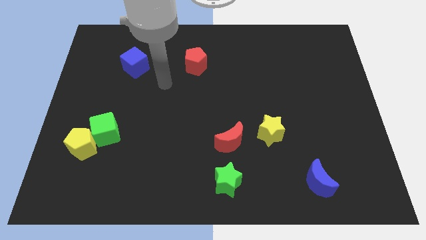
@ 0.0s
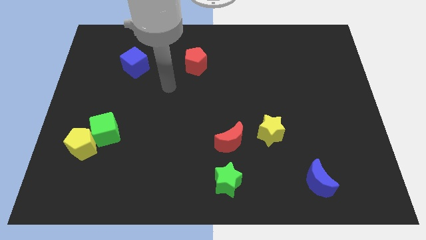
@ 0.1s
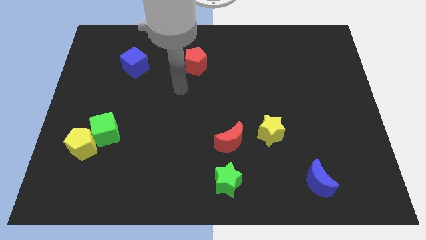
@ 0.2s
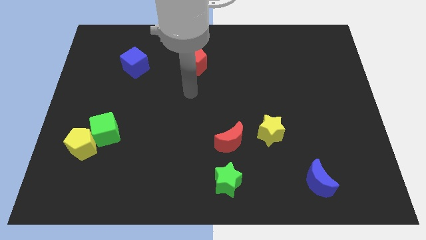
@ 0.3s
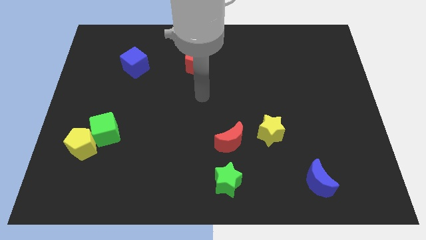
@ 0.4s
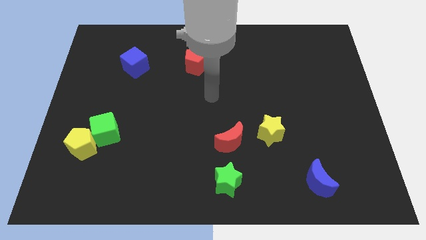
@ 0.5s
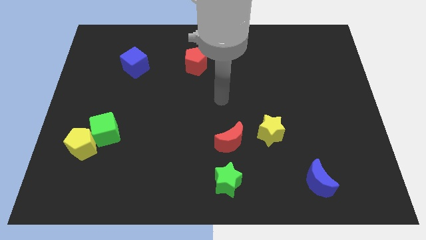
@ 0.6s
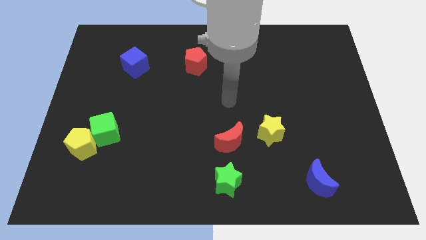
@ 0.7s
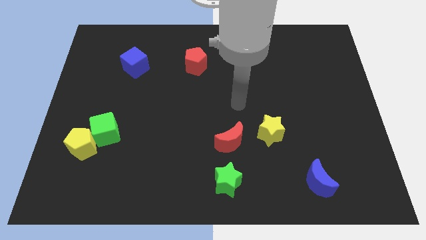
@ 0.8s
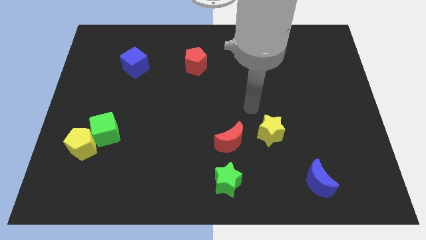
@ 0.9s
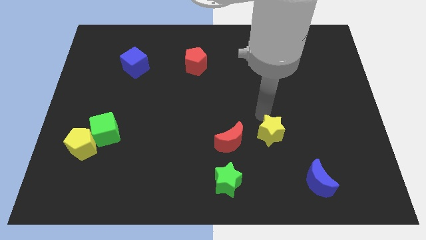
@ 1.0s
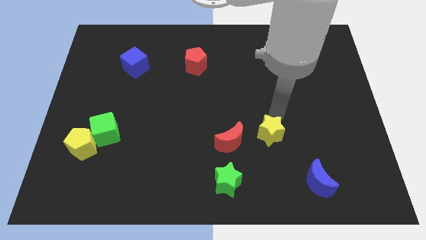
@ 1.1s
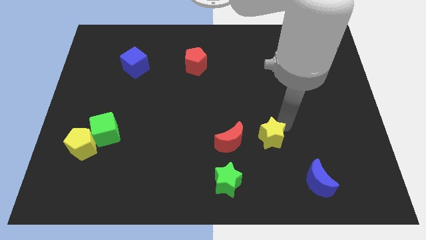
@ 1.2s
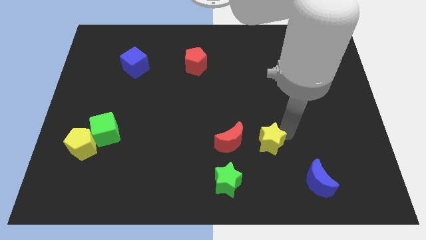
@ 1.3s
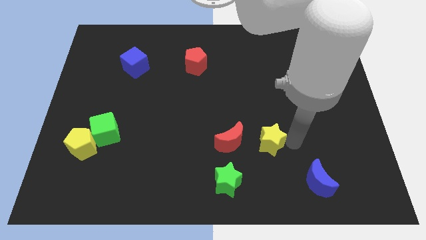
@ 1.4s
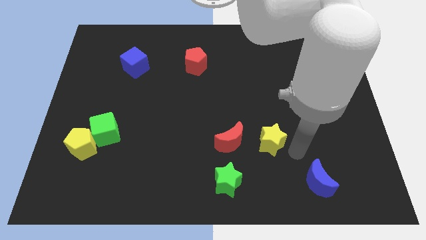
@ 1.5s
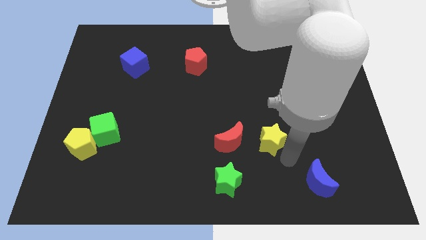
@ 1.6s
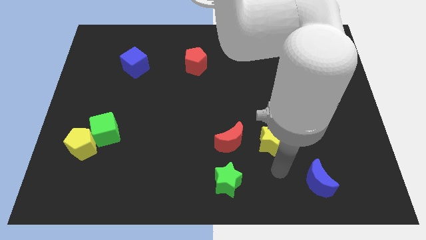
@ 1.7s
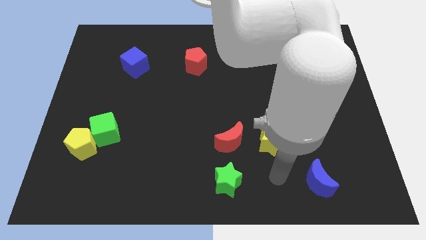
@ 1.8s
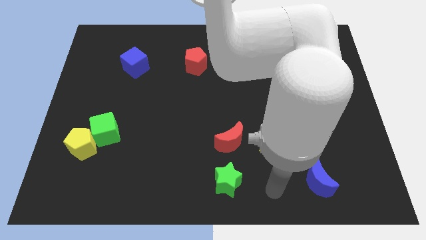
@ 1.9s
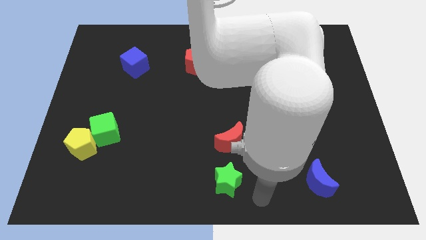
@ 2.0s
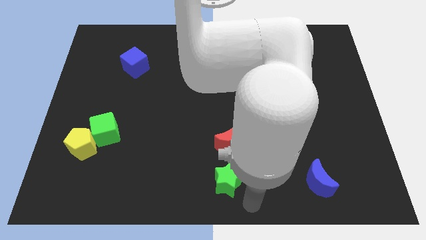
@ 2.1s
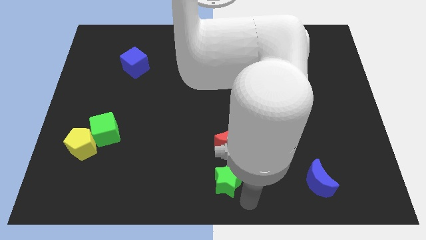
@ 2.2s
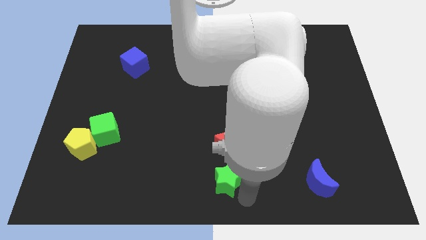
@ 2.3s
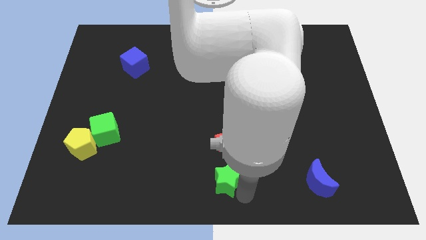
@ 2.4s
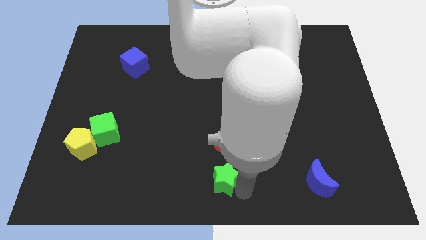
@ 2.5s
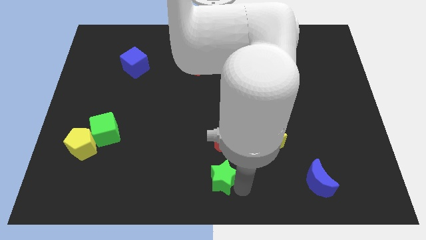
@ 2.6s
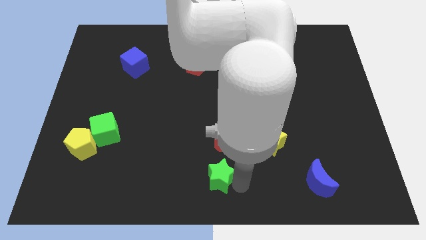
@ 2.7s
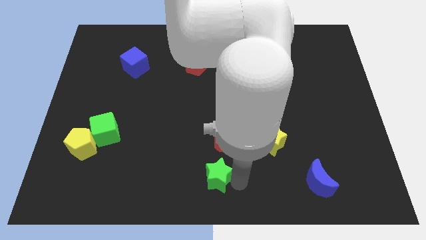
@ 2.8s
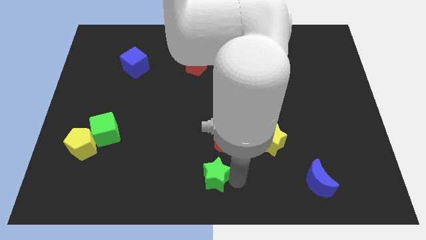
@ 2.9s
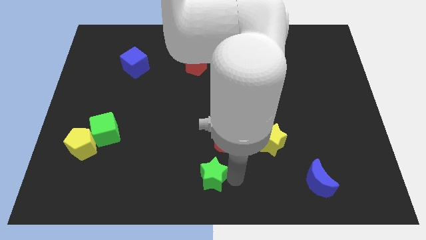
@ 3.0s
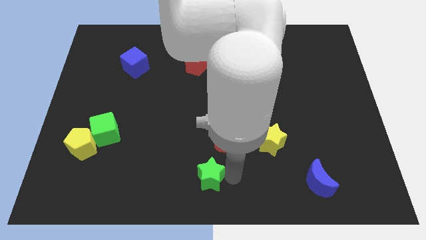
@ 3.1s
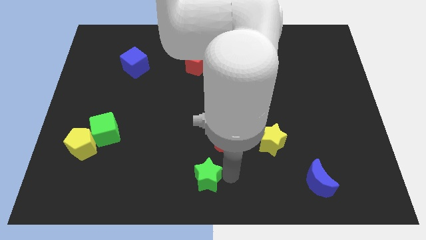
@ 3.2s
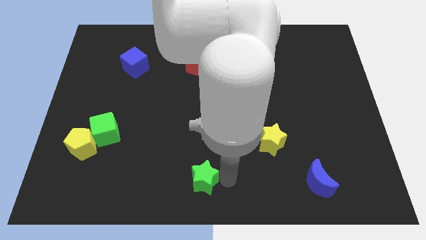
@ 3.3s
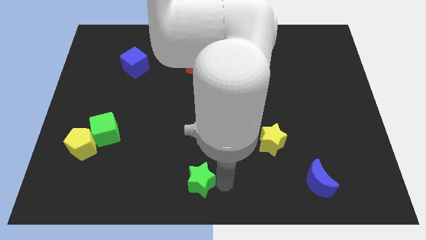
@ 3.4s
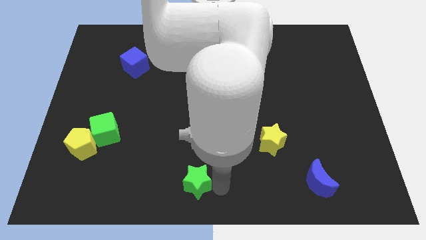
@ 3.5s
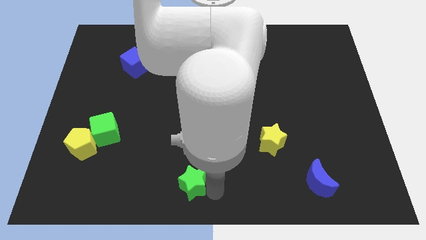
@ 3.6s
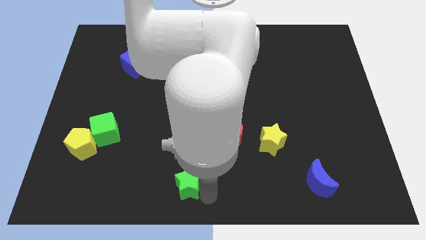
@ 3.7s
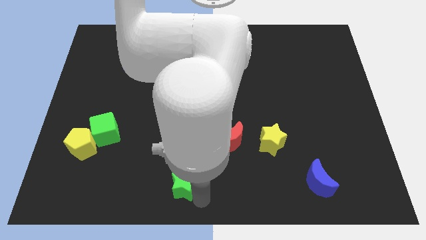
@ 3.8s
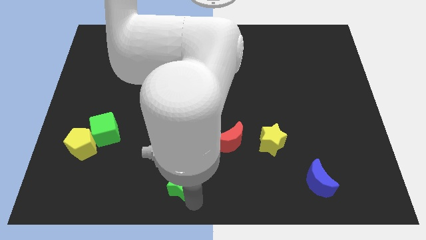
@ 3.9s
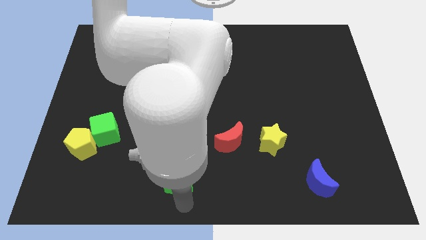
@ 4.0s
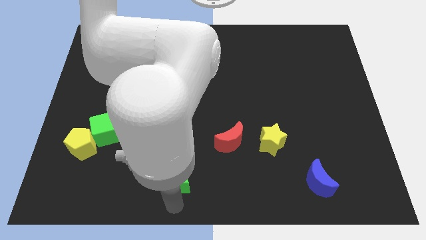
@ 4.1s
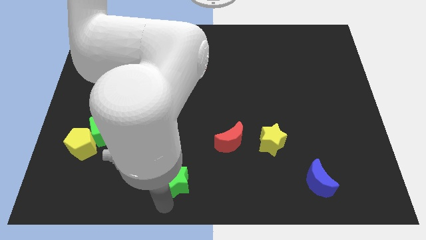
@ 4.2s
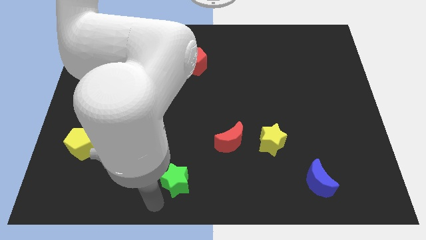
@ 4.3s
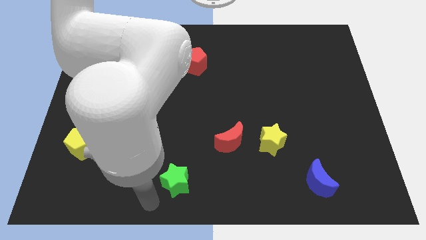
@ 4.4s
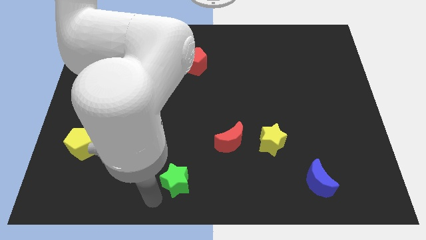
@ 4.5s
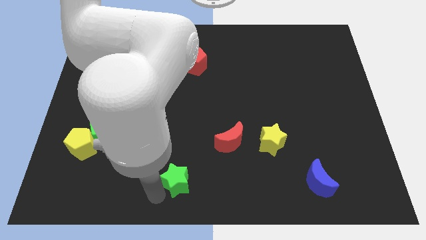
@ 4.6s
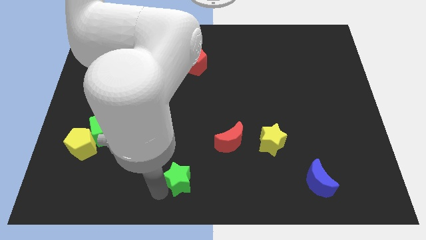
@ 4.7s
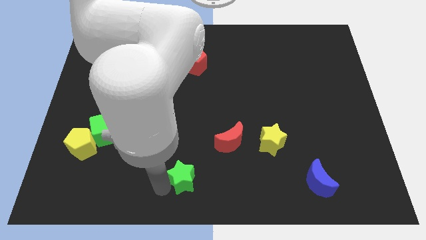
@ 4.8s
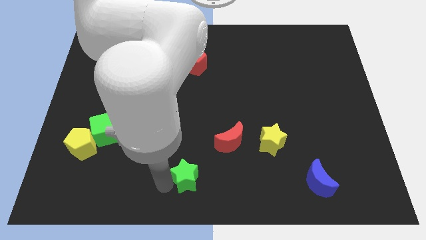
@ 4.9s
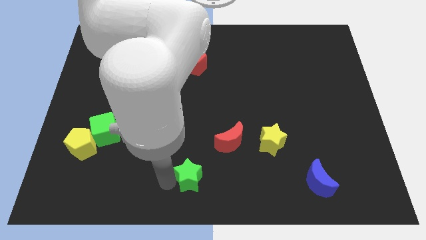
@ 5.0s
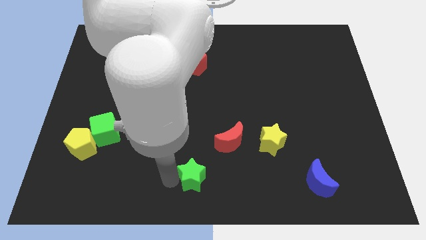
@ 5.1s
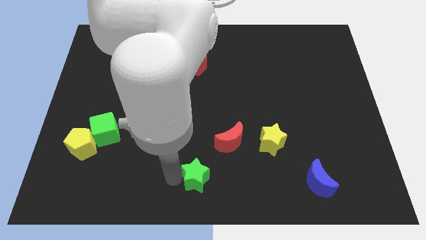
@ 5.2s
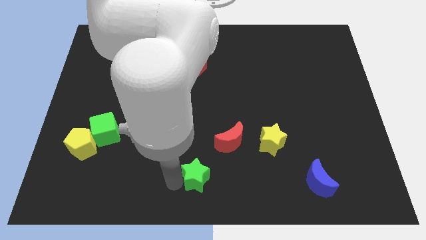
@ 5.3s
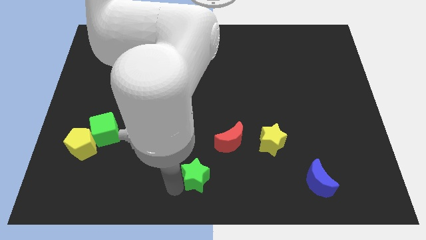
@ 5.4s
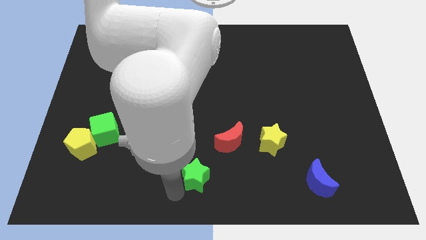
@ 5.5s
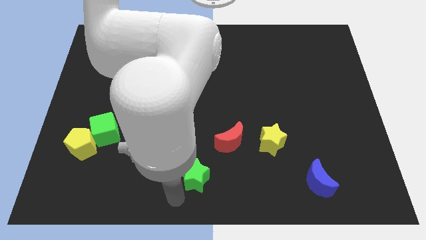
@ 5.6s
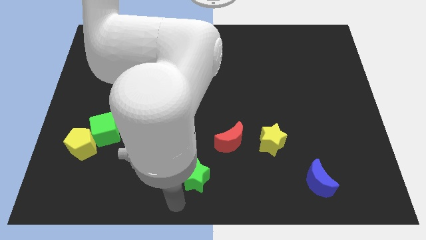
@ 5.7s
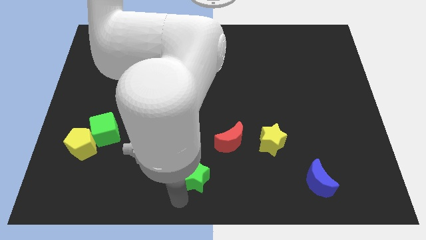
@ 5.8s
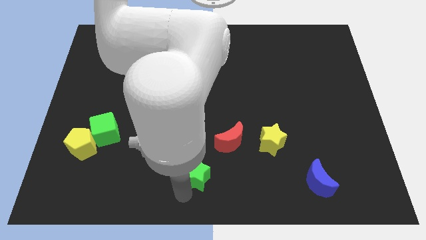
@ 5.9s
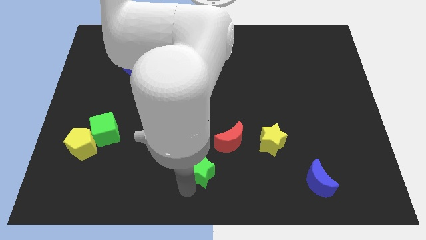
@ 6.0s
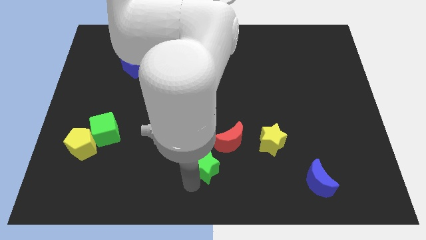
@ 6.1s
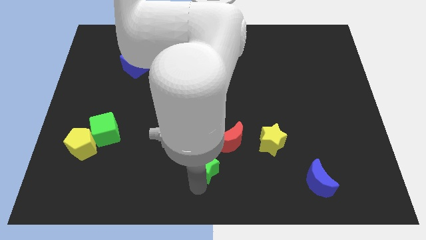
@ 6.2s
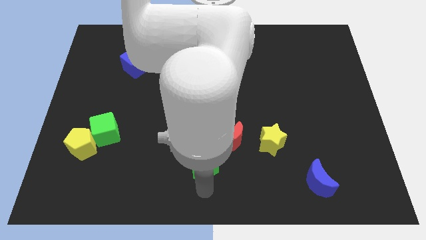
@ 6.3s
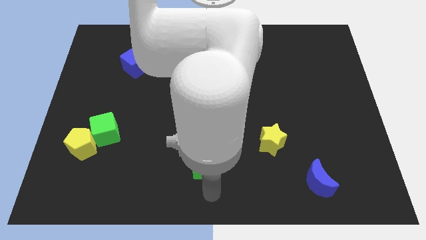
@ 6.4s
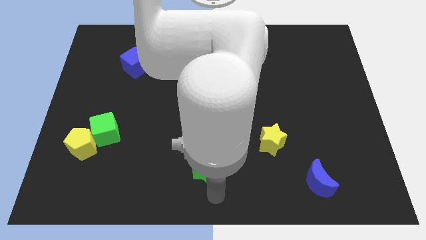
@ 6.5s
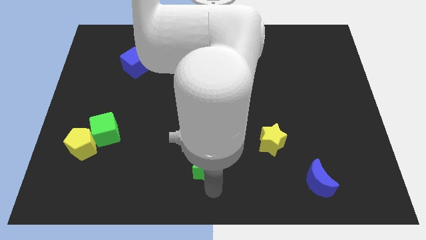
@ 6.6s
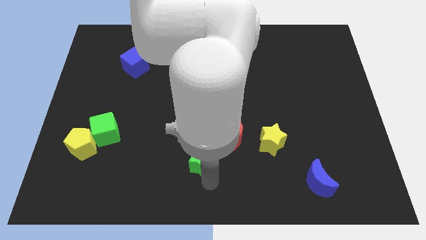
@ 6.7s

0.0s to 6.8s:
move the green star upwards and left diagonally slightly

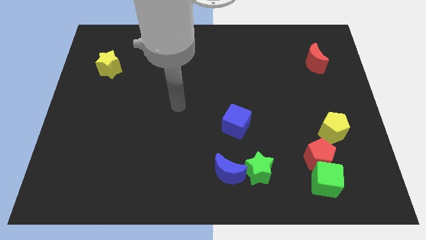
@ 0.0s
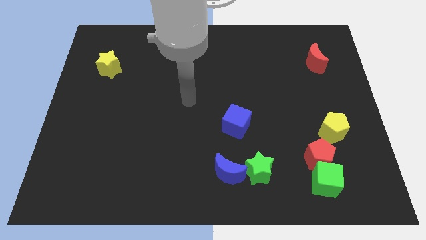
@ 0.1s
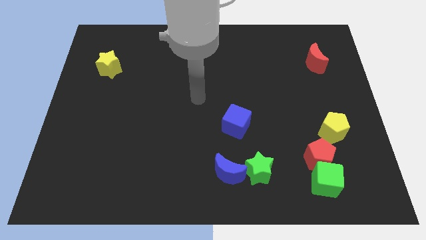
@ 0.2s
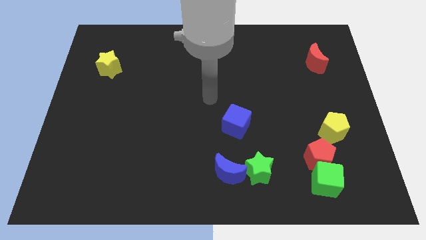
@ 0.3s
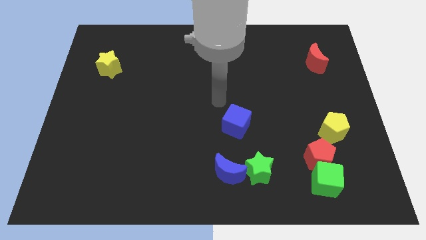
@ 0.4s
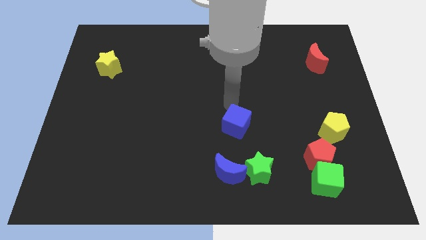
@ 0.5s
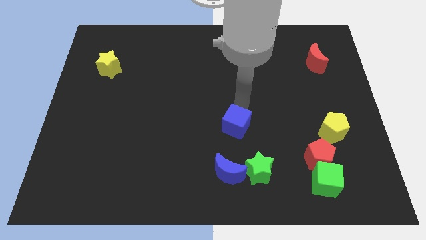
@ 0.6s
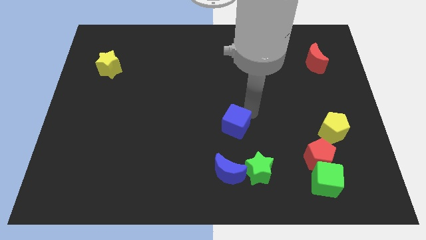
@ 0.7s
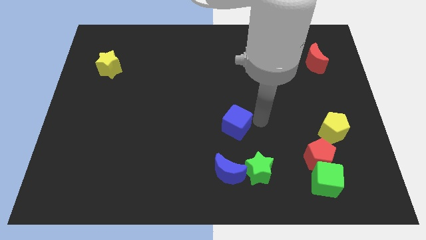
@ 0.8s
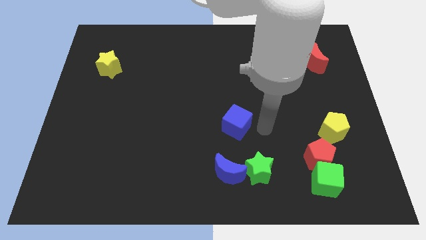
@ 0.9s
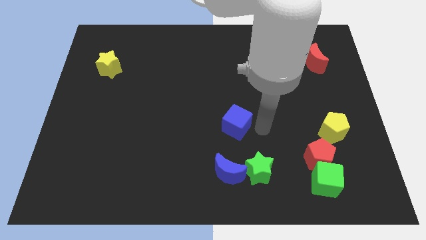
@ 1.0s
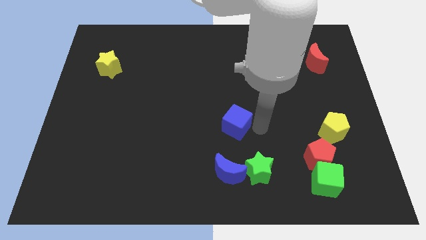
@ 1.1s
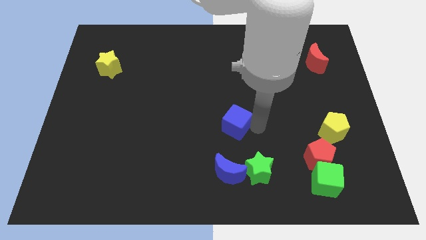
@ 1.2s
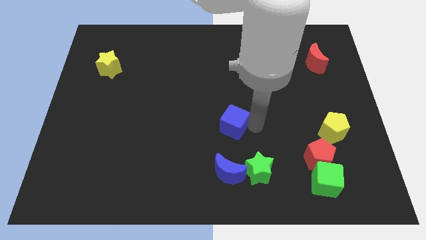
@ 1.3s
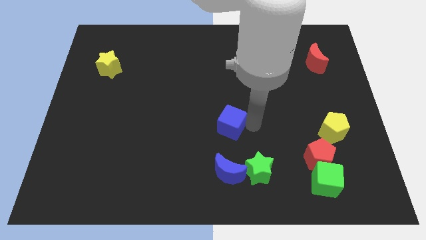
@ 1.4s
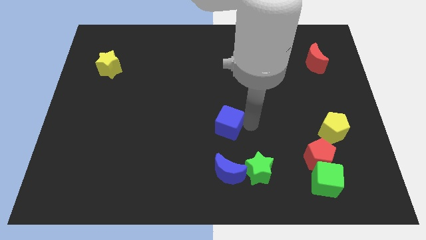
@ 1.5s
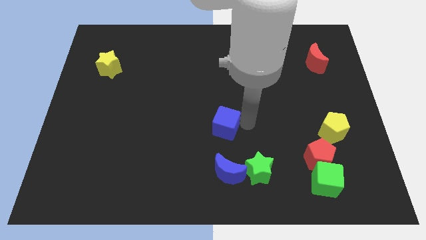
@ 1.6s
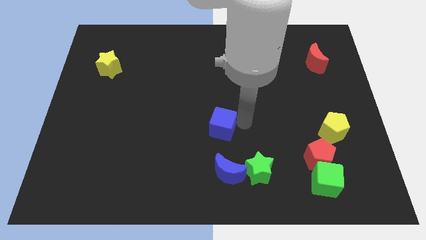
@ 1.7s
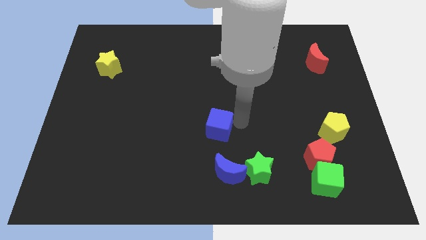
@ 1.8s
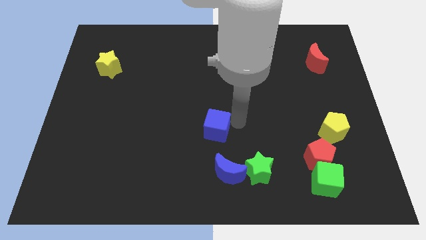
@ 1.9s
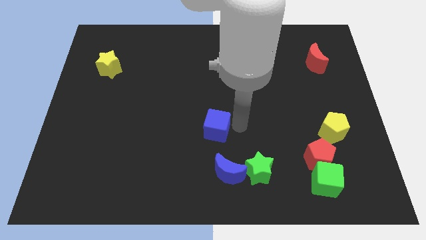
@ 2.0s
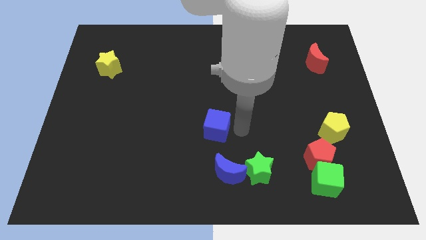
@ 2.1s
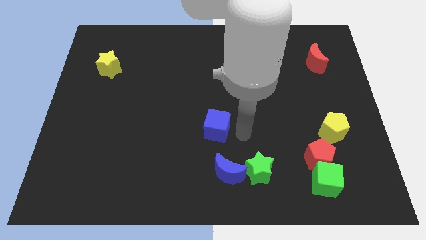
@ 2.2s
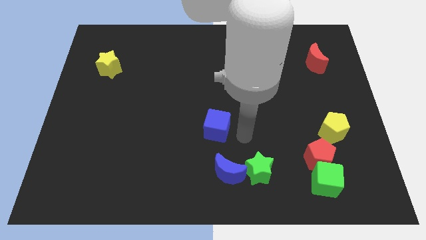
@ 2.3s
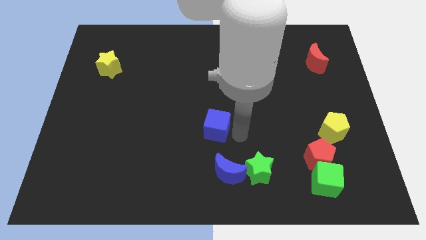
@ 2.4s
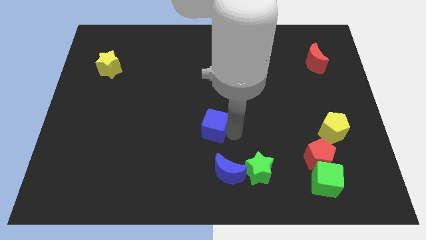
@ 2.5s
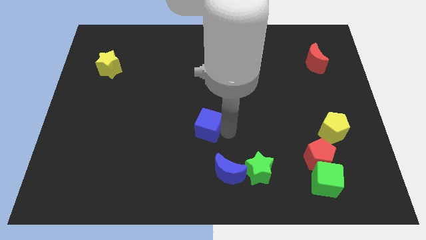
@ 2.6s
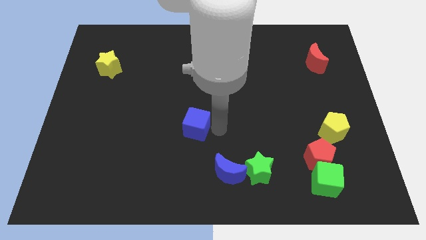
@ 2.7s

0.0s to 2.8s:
push the blue cube to the left slightly
